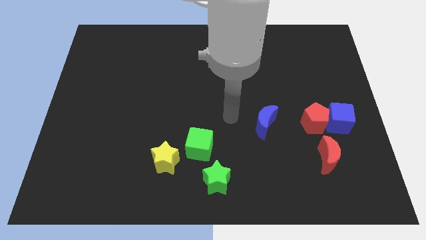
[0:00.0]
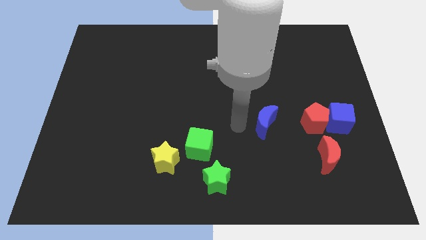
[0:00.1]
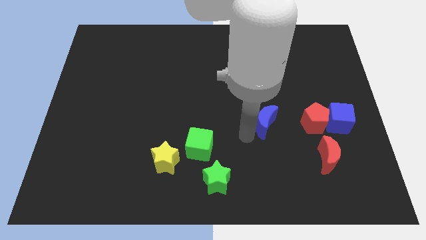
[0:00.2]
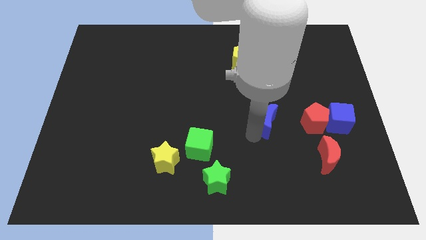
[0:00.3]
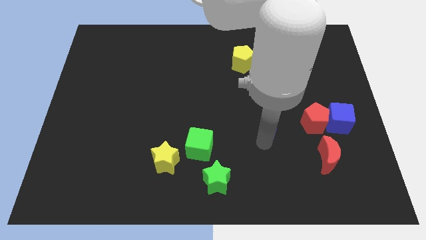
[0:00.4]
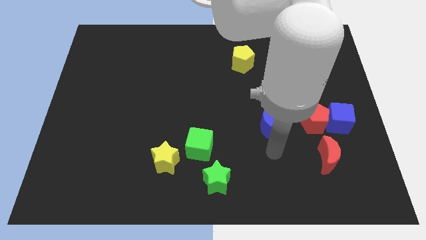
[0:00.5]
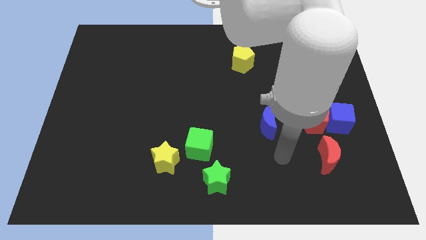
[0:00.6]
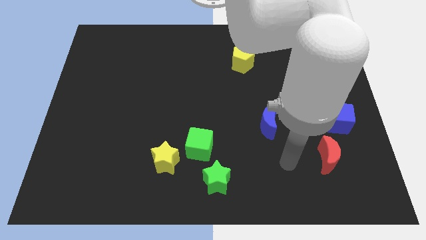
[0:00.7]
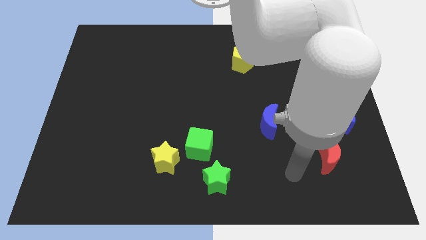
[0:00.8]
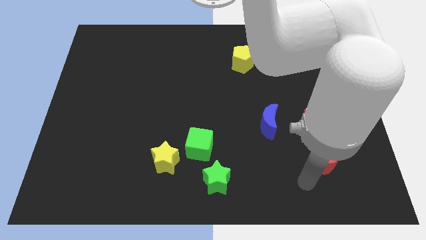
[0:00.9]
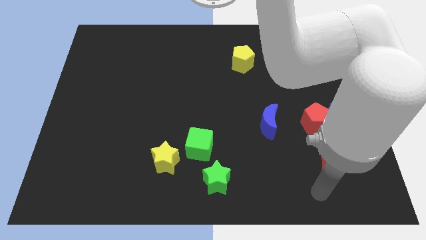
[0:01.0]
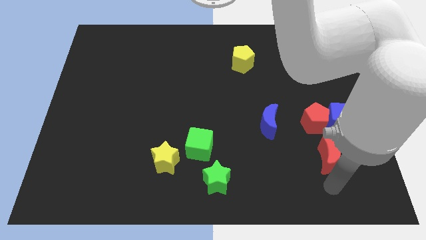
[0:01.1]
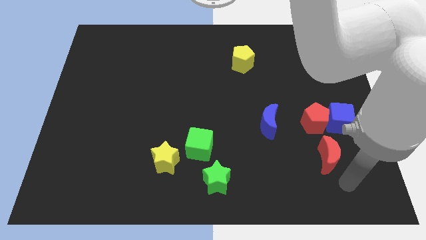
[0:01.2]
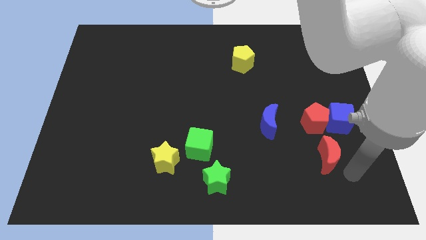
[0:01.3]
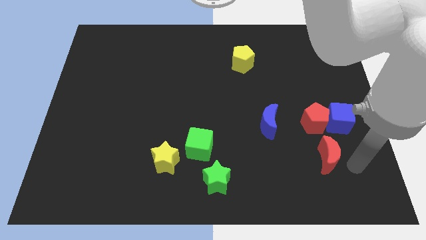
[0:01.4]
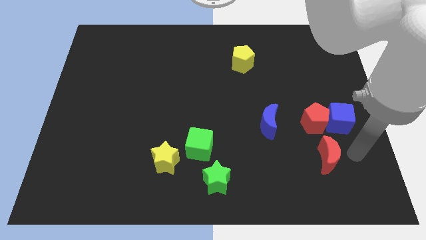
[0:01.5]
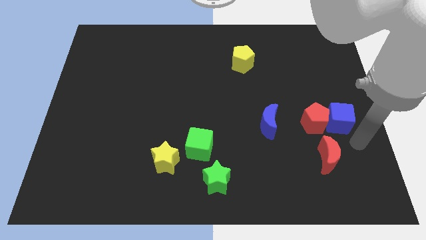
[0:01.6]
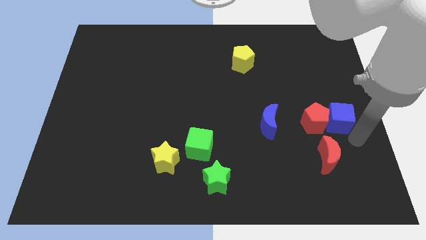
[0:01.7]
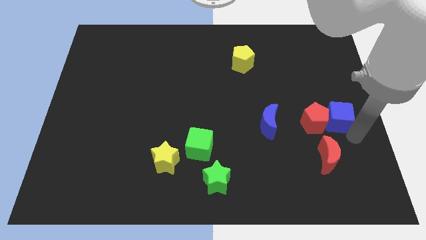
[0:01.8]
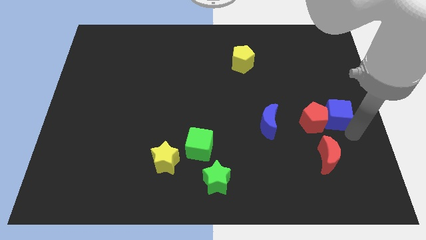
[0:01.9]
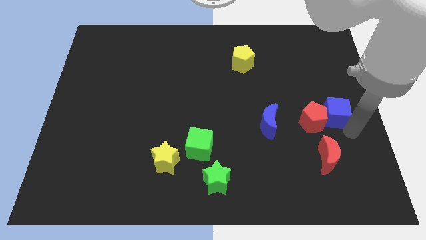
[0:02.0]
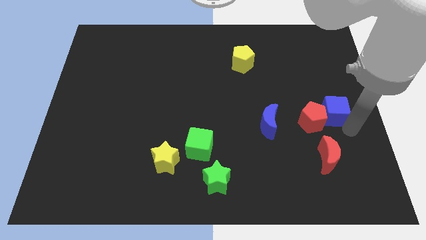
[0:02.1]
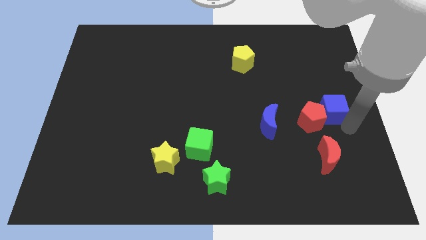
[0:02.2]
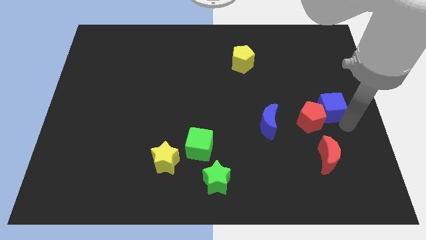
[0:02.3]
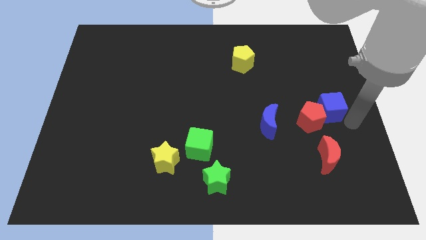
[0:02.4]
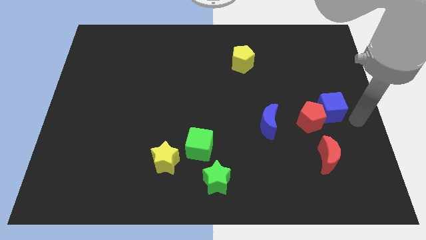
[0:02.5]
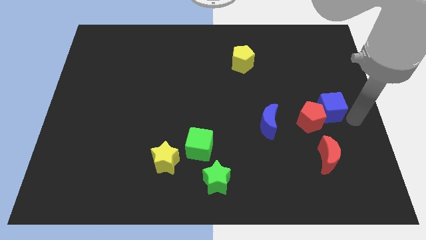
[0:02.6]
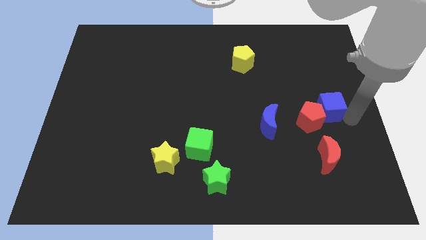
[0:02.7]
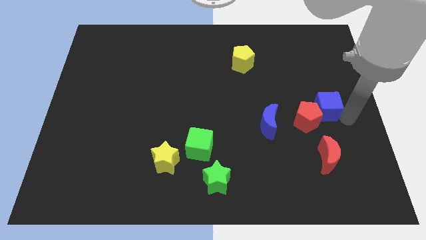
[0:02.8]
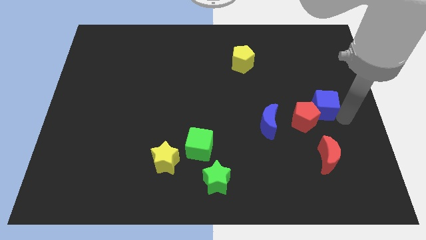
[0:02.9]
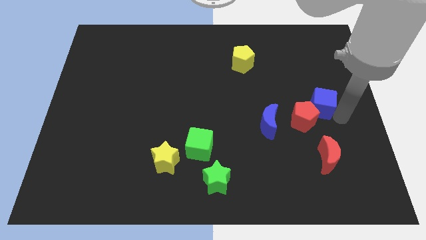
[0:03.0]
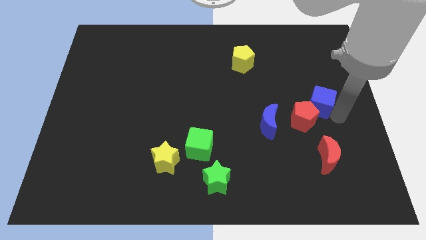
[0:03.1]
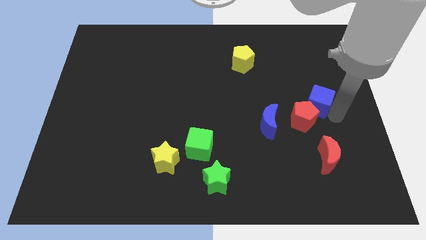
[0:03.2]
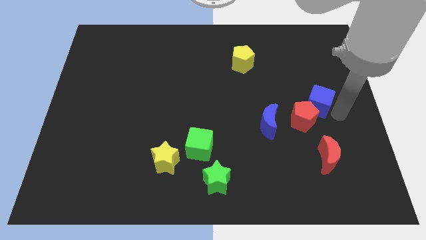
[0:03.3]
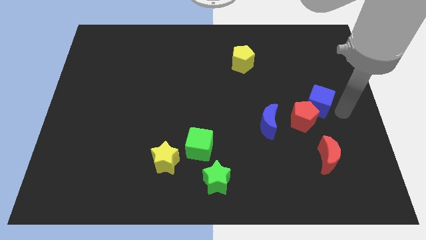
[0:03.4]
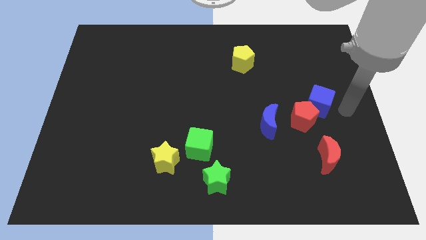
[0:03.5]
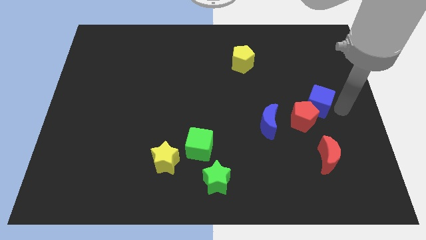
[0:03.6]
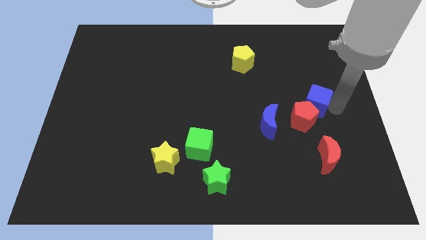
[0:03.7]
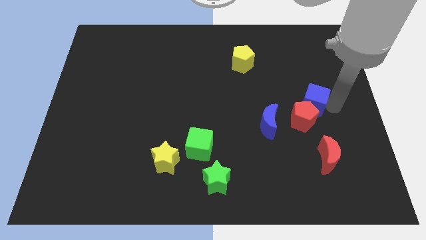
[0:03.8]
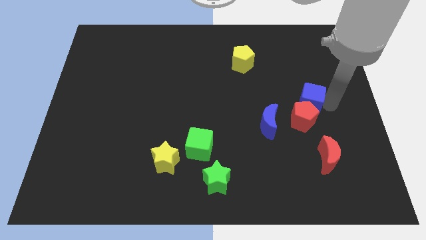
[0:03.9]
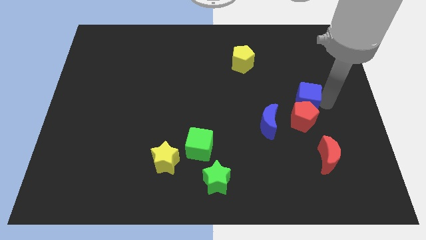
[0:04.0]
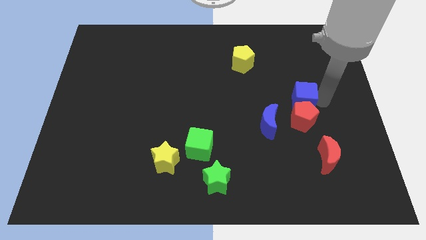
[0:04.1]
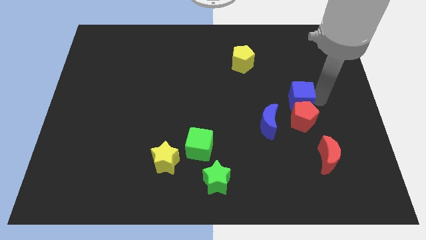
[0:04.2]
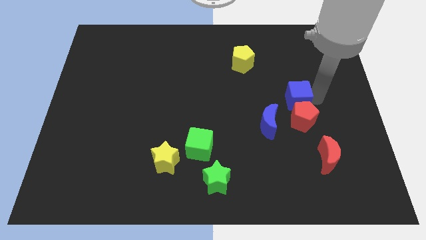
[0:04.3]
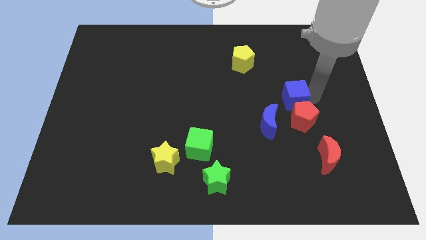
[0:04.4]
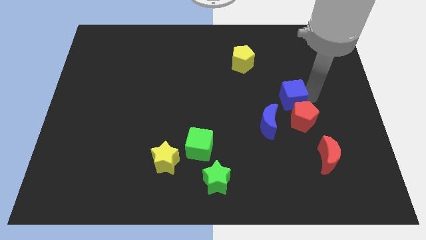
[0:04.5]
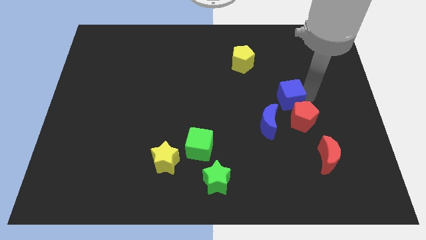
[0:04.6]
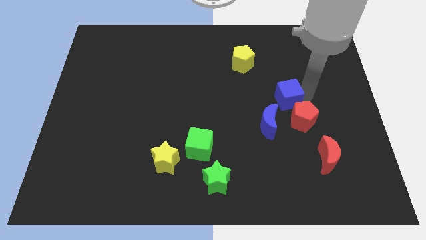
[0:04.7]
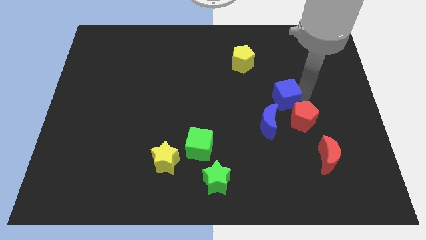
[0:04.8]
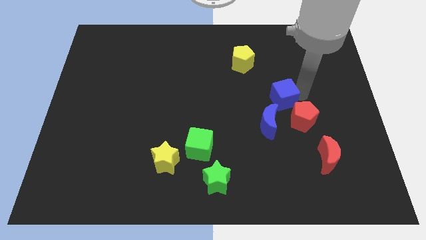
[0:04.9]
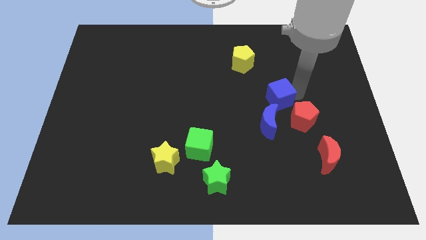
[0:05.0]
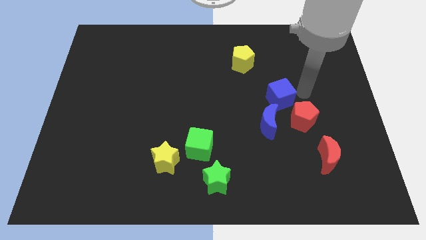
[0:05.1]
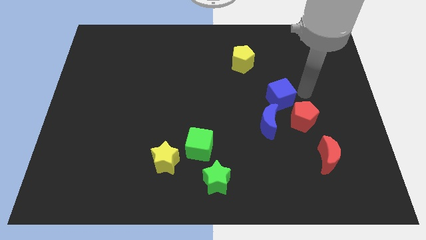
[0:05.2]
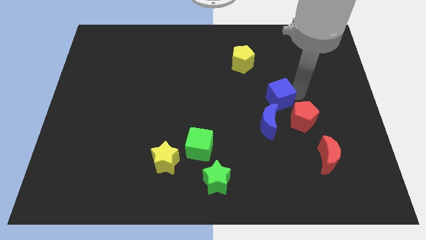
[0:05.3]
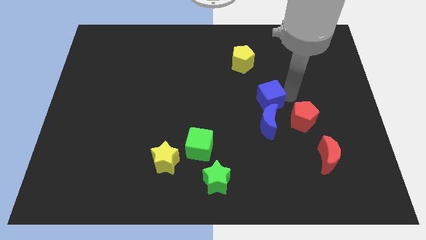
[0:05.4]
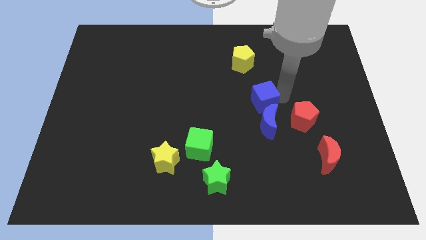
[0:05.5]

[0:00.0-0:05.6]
put the blue cube diagonally up and to the left of the blue moon

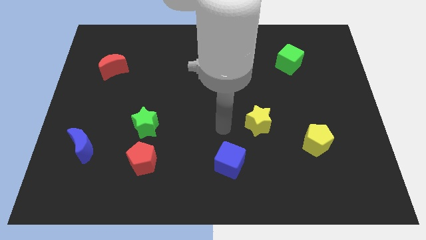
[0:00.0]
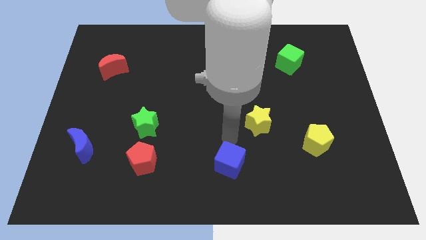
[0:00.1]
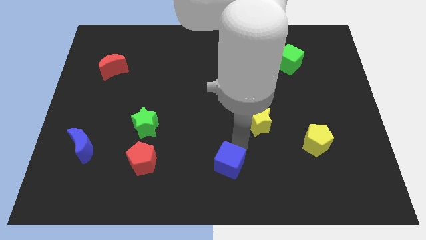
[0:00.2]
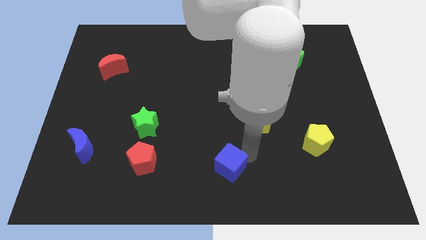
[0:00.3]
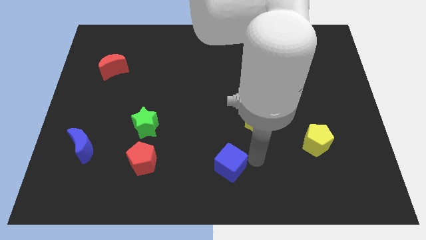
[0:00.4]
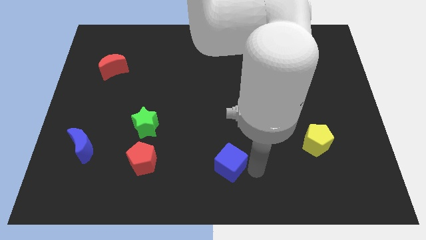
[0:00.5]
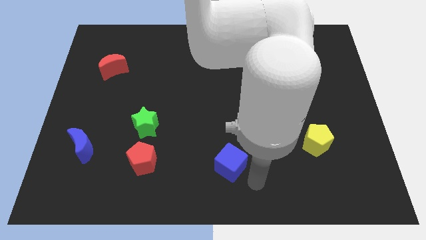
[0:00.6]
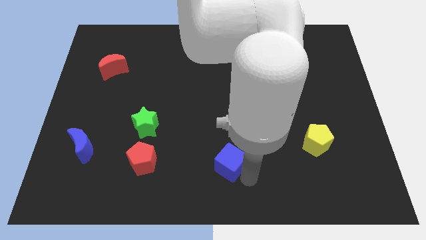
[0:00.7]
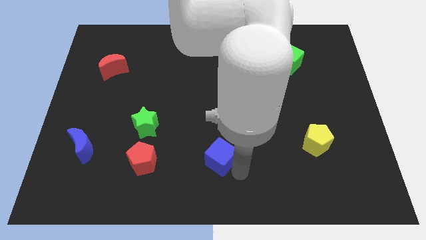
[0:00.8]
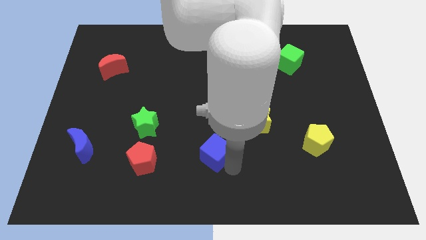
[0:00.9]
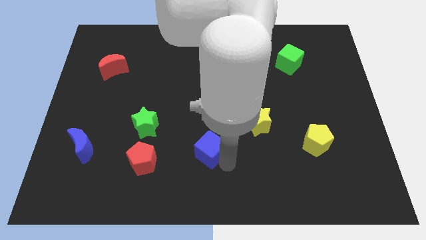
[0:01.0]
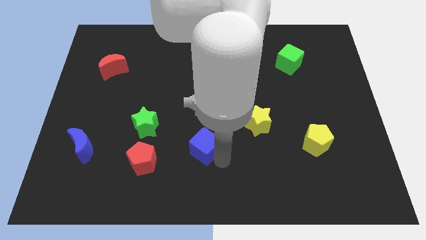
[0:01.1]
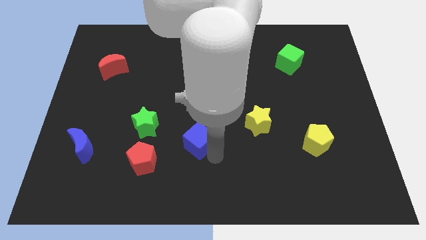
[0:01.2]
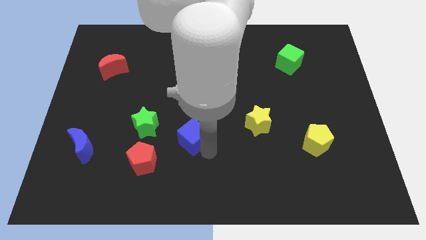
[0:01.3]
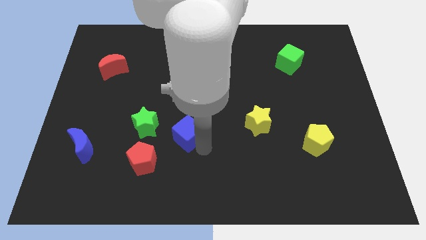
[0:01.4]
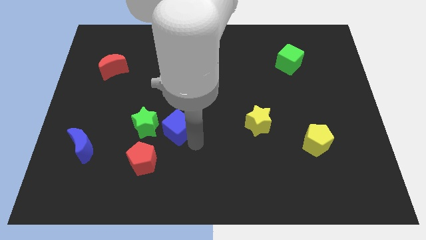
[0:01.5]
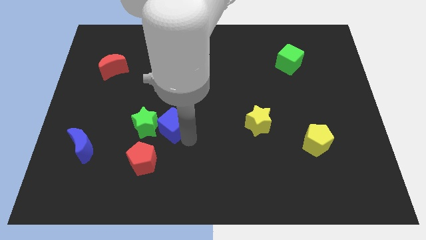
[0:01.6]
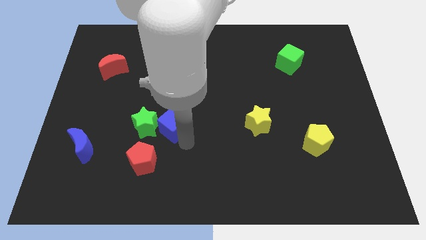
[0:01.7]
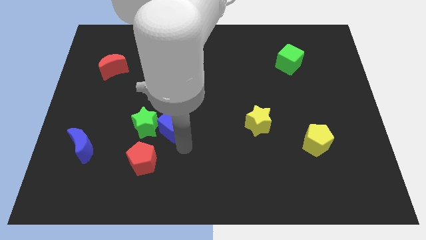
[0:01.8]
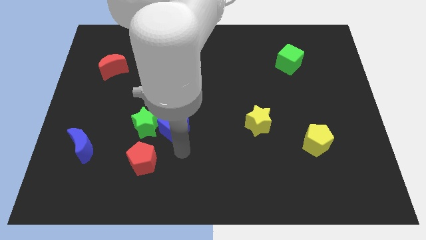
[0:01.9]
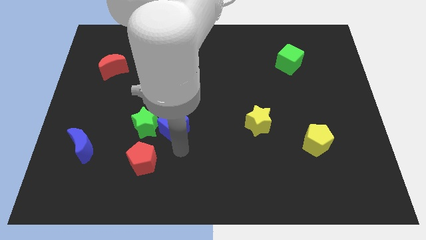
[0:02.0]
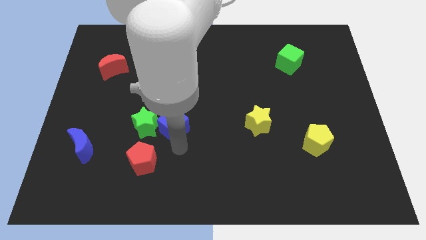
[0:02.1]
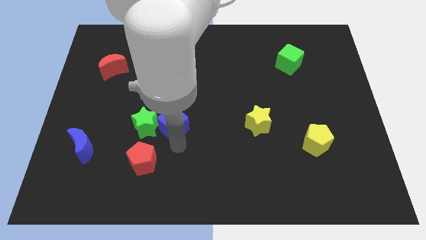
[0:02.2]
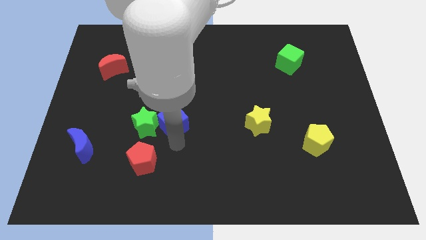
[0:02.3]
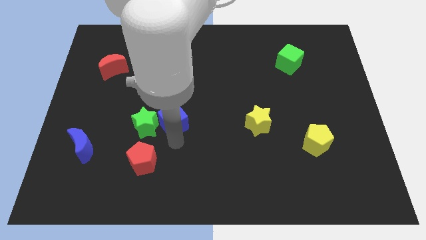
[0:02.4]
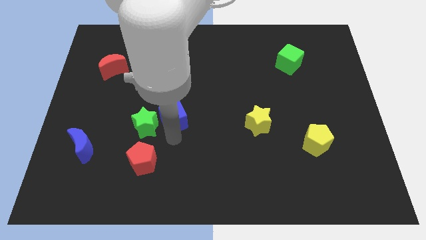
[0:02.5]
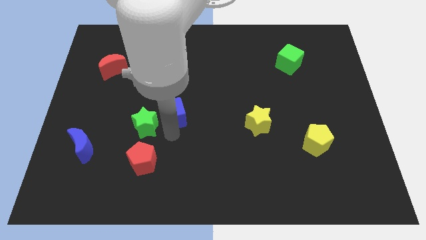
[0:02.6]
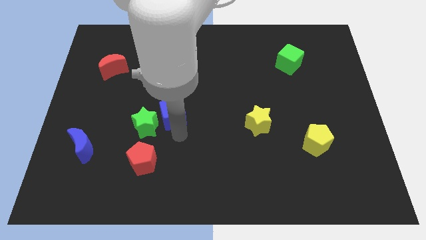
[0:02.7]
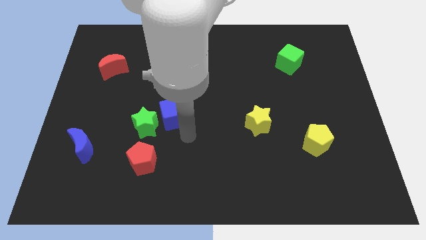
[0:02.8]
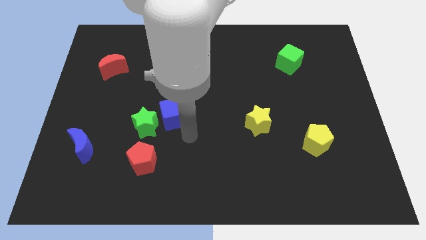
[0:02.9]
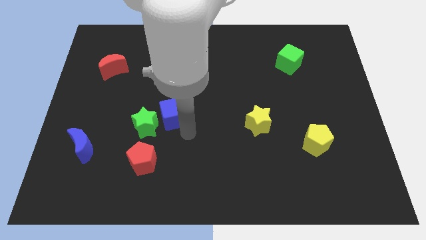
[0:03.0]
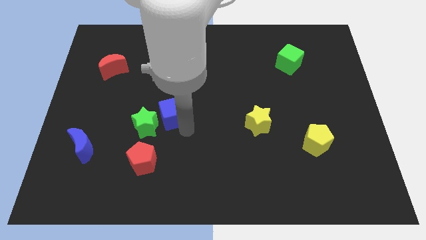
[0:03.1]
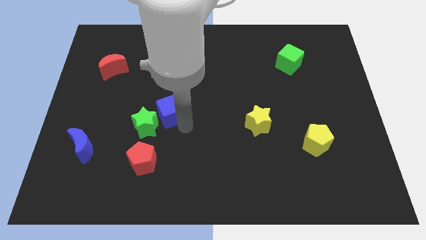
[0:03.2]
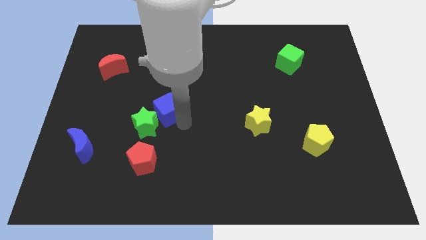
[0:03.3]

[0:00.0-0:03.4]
move the blue cube to the top side of the green star
